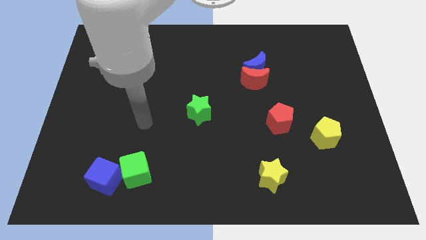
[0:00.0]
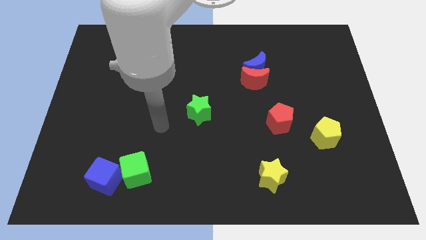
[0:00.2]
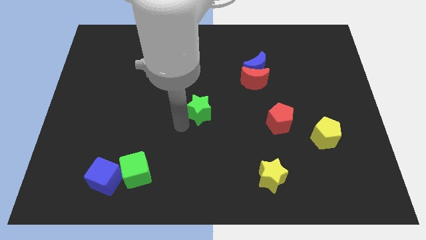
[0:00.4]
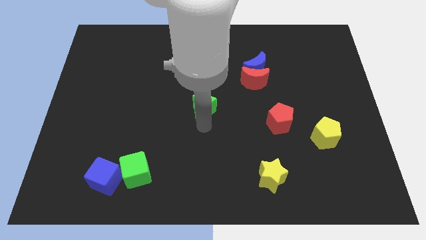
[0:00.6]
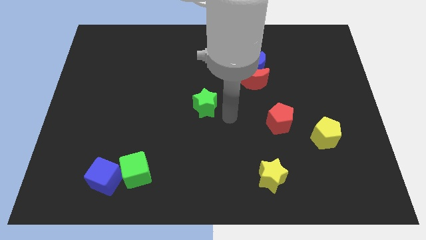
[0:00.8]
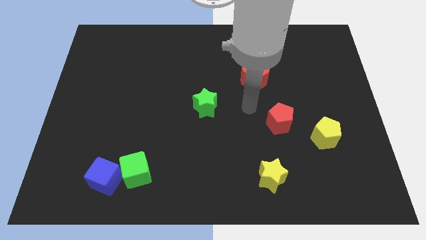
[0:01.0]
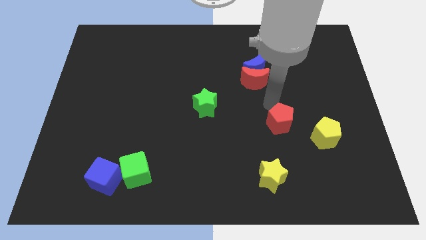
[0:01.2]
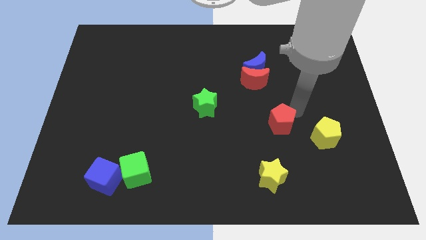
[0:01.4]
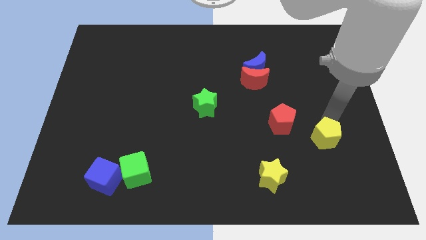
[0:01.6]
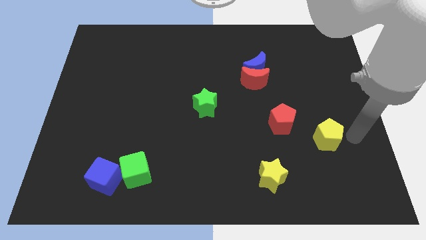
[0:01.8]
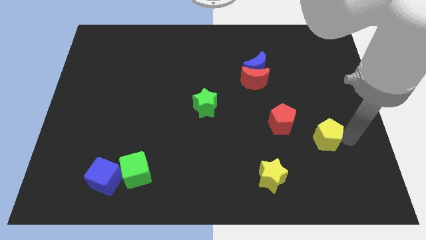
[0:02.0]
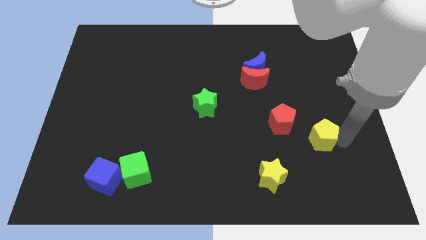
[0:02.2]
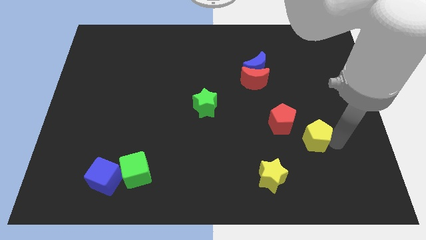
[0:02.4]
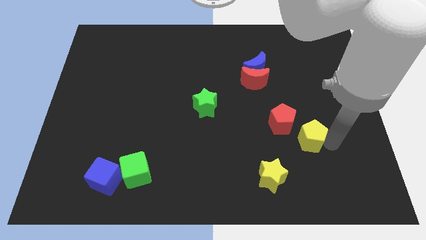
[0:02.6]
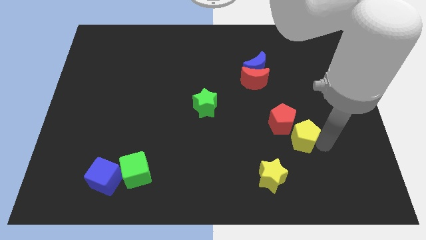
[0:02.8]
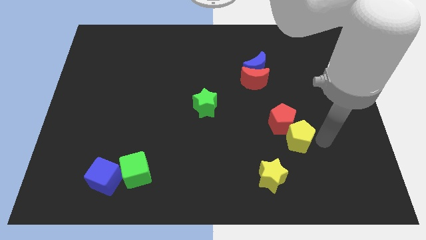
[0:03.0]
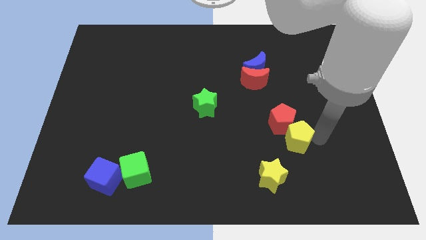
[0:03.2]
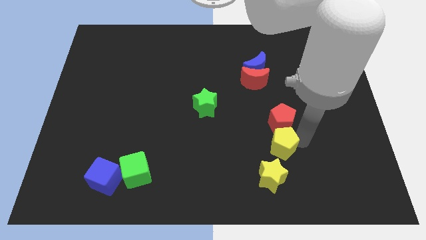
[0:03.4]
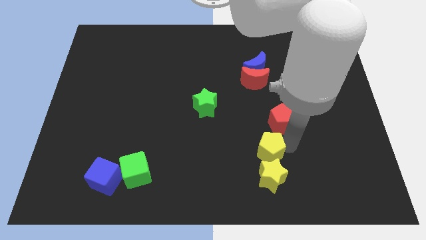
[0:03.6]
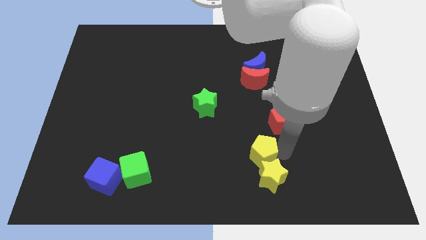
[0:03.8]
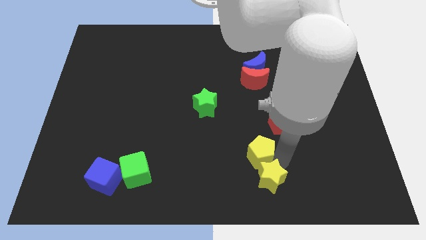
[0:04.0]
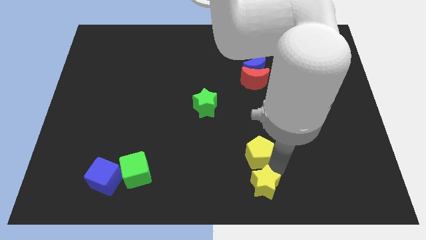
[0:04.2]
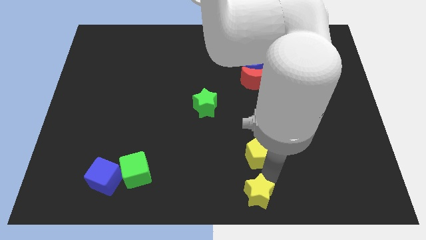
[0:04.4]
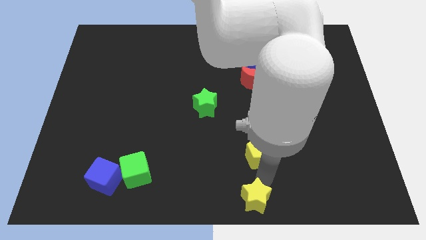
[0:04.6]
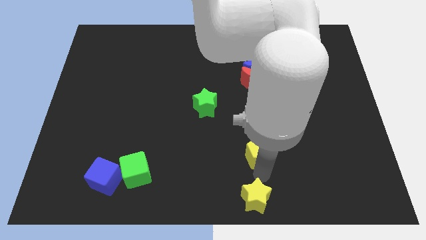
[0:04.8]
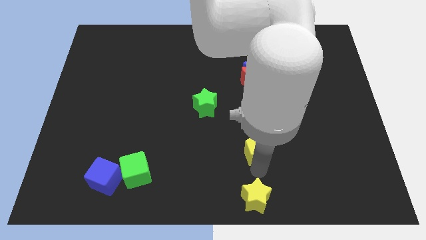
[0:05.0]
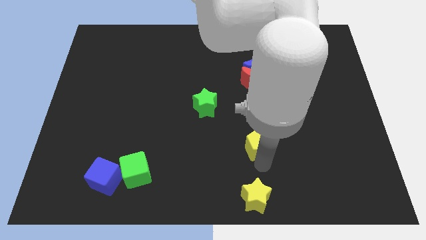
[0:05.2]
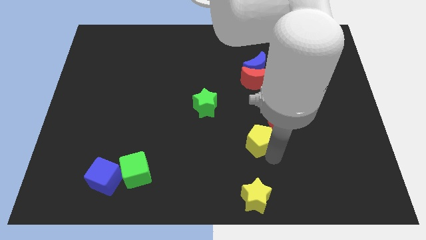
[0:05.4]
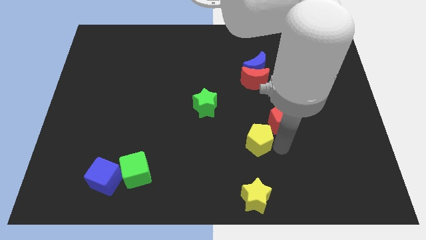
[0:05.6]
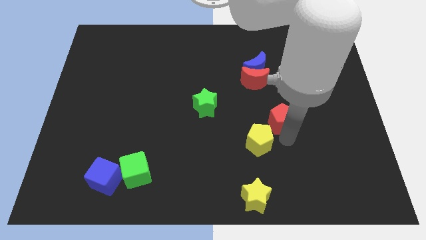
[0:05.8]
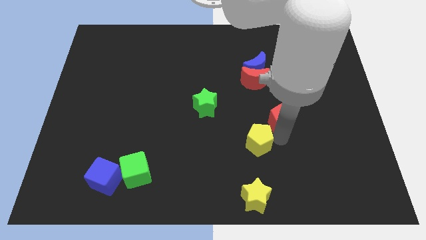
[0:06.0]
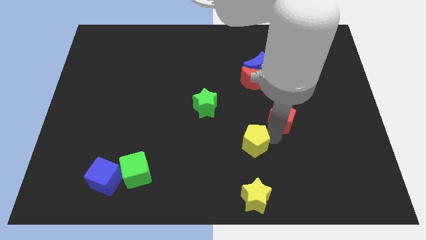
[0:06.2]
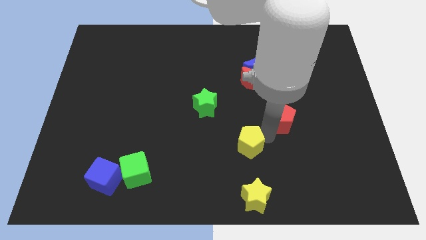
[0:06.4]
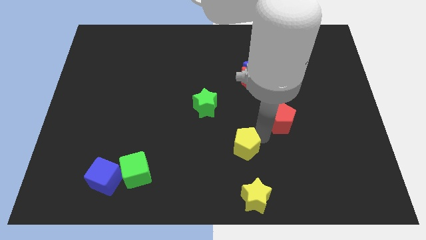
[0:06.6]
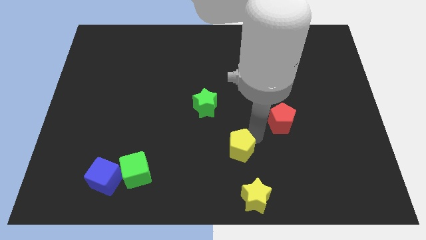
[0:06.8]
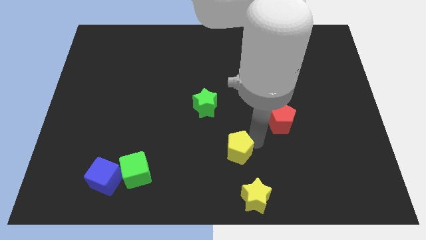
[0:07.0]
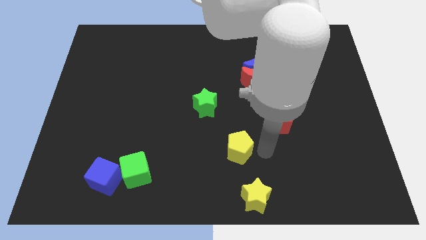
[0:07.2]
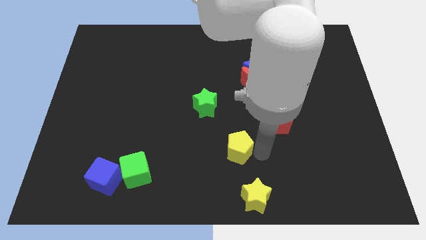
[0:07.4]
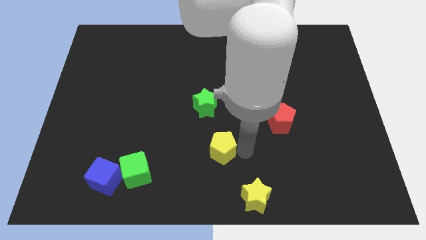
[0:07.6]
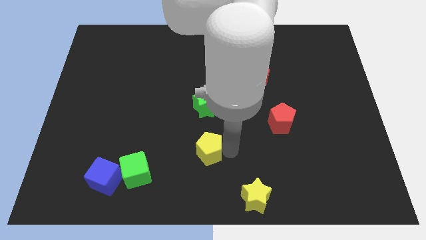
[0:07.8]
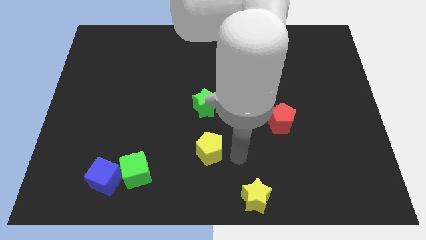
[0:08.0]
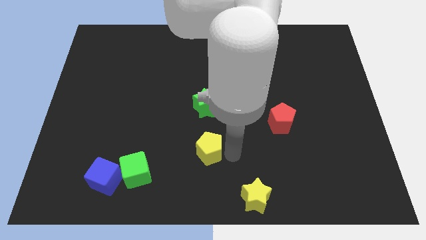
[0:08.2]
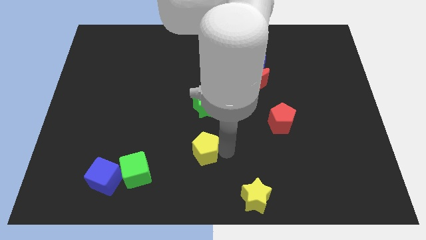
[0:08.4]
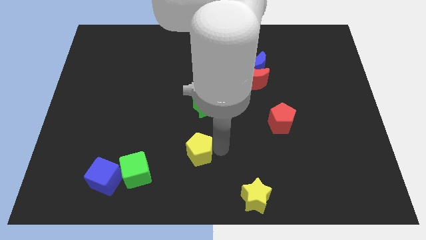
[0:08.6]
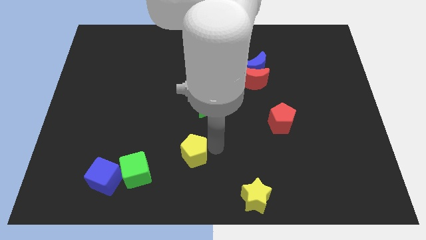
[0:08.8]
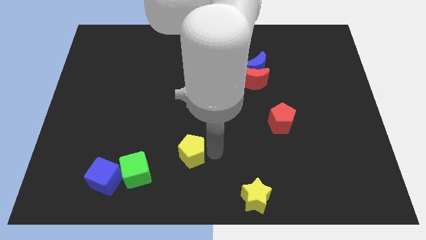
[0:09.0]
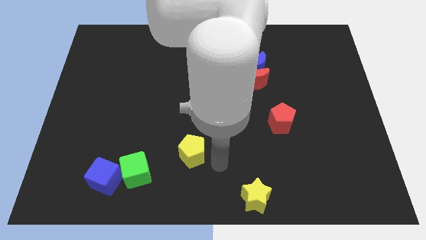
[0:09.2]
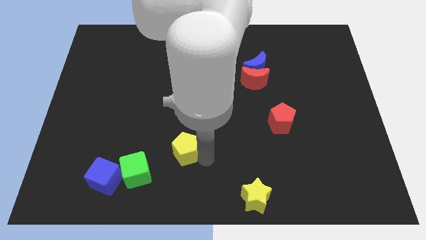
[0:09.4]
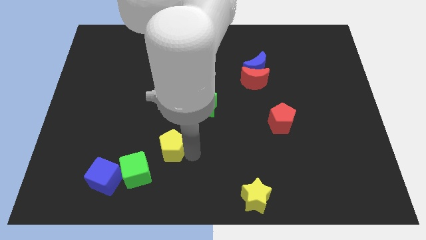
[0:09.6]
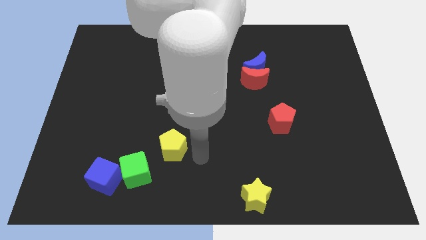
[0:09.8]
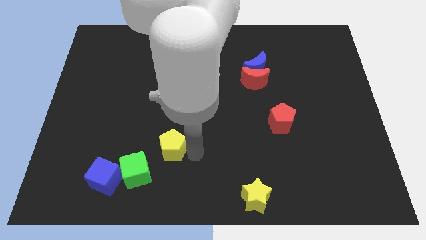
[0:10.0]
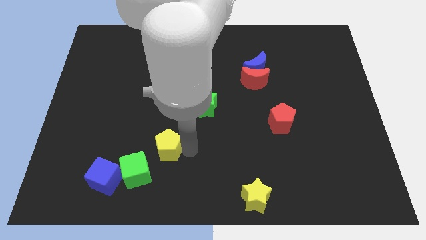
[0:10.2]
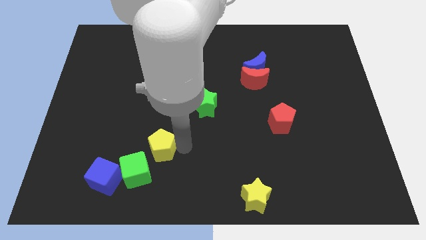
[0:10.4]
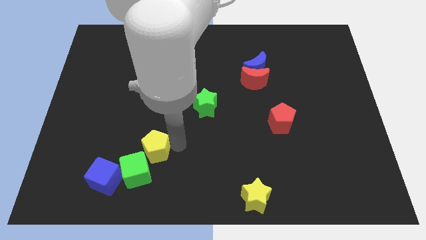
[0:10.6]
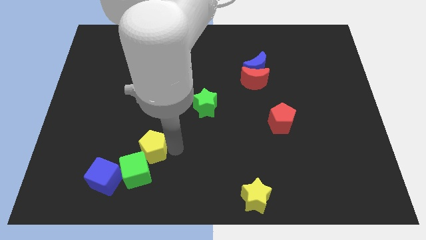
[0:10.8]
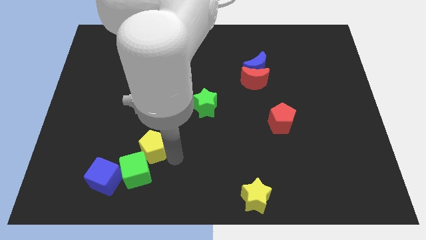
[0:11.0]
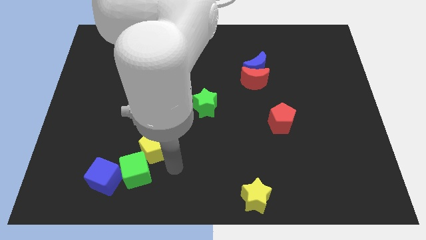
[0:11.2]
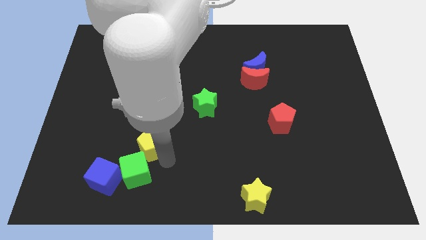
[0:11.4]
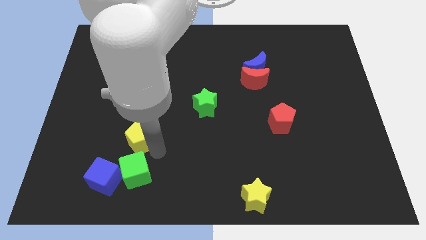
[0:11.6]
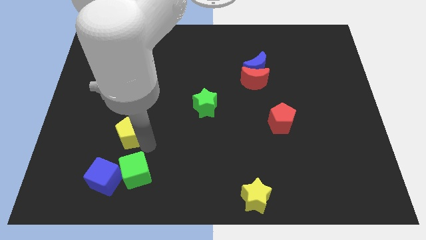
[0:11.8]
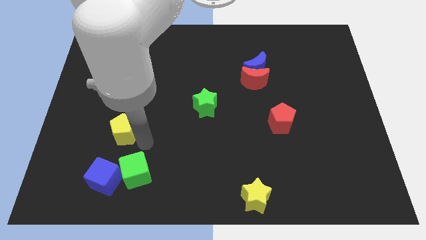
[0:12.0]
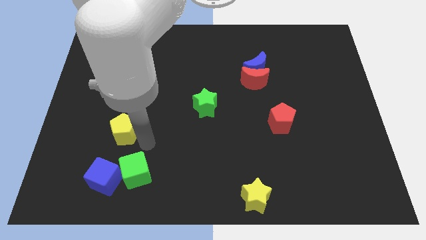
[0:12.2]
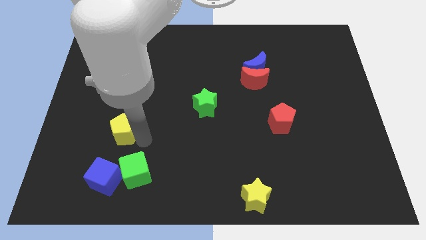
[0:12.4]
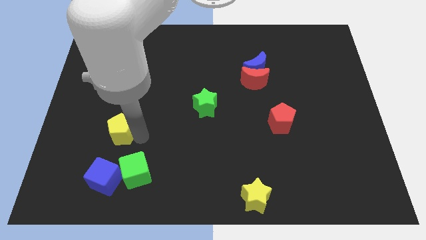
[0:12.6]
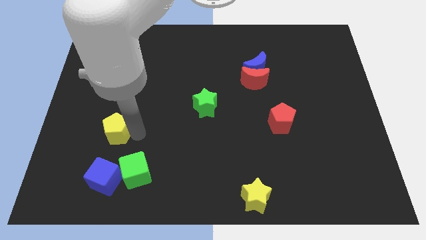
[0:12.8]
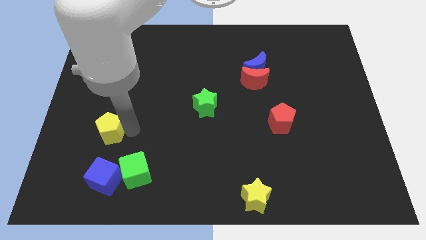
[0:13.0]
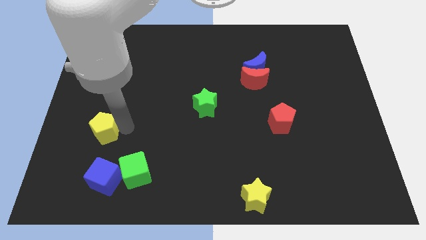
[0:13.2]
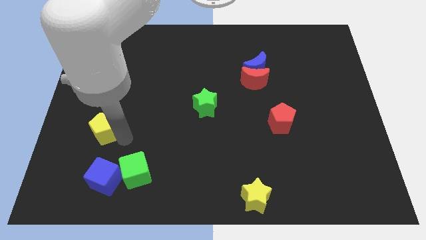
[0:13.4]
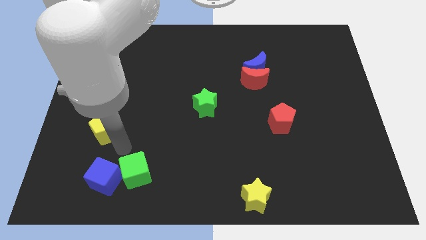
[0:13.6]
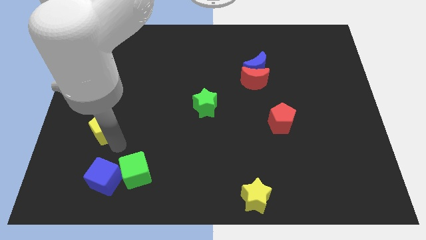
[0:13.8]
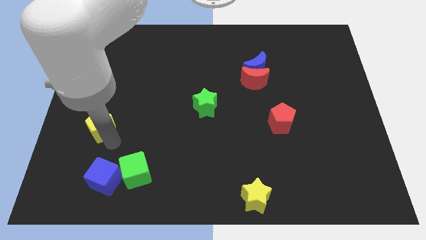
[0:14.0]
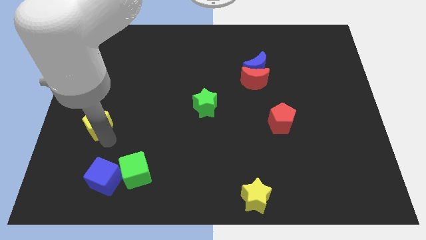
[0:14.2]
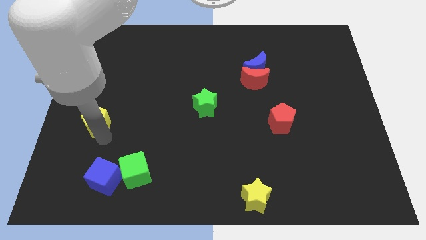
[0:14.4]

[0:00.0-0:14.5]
push the yellow pentagon to the left side

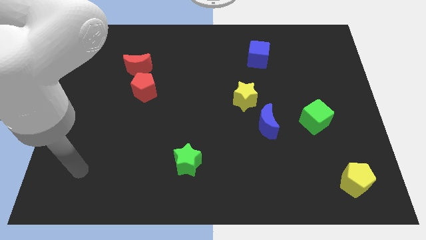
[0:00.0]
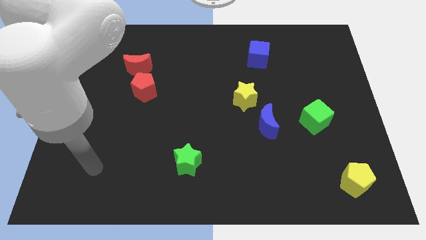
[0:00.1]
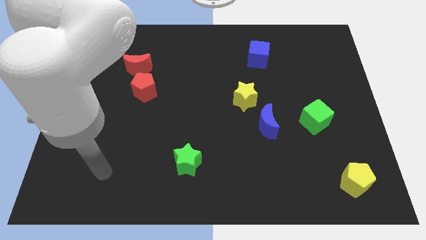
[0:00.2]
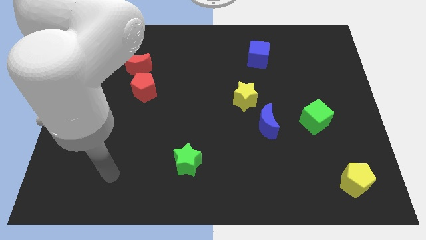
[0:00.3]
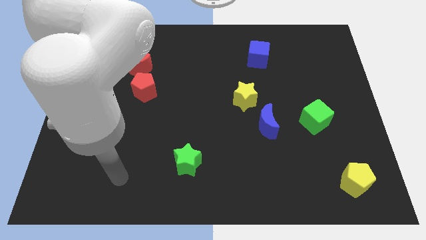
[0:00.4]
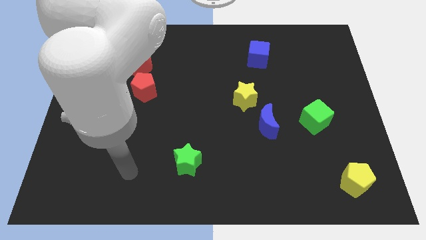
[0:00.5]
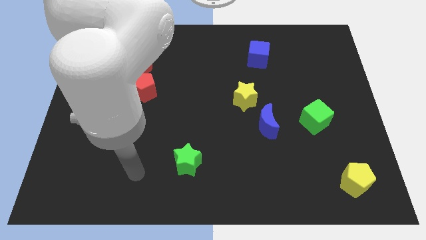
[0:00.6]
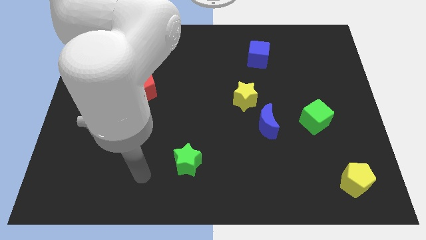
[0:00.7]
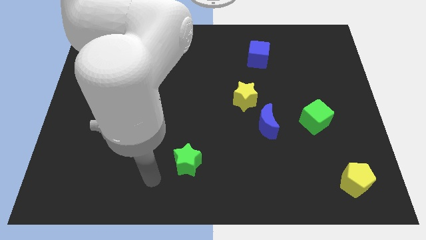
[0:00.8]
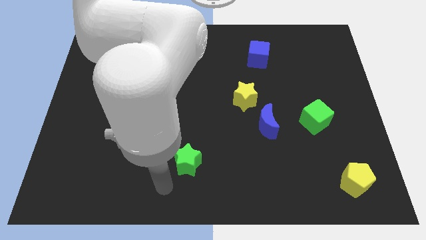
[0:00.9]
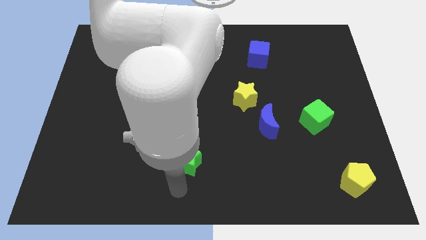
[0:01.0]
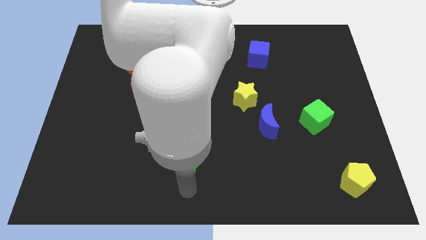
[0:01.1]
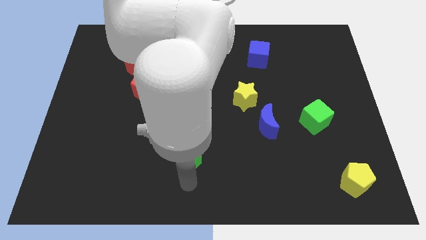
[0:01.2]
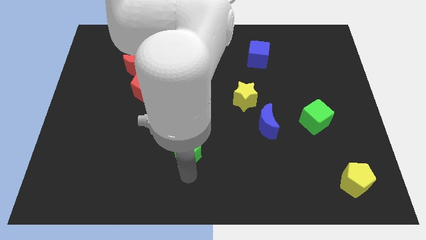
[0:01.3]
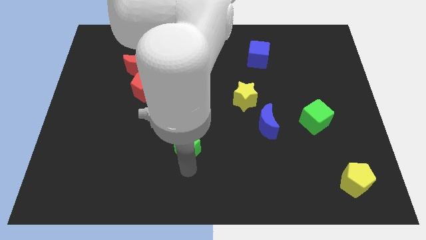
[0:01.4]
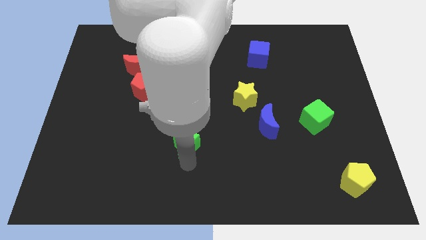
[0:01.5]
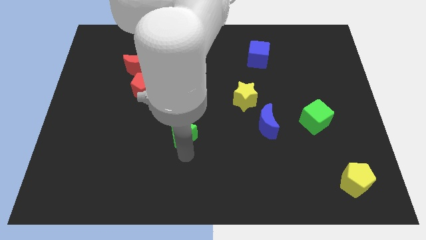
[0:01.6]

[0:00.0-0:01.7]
slide the green star to the center
